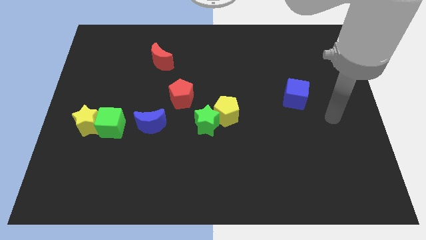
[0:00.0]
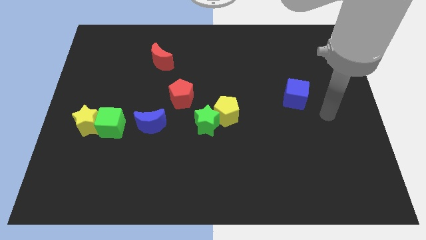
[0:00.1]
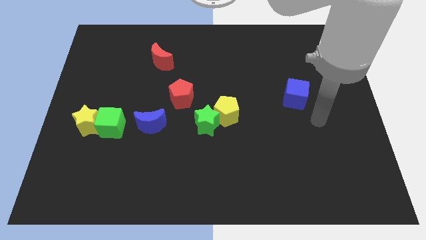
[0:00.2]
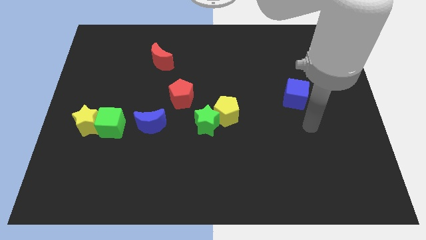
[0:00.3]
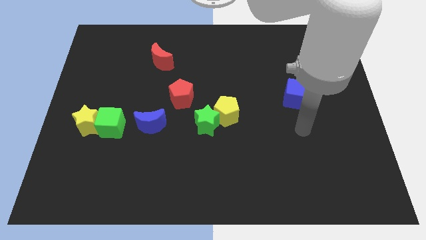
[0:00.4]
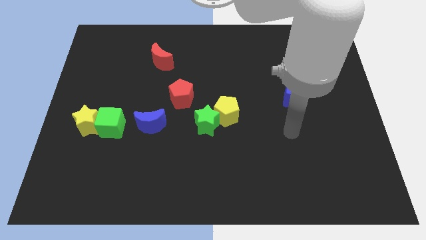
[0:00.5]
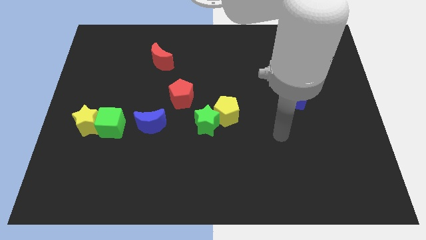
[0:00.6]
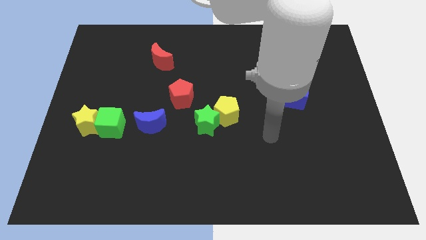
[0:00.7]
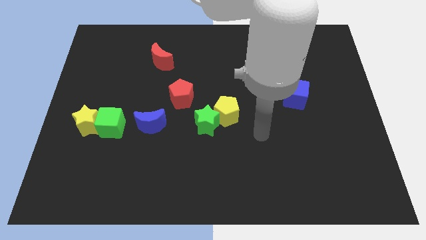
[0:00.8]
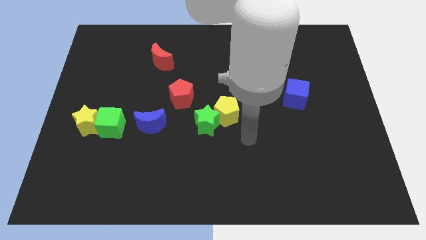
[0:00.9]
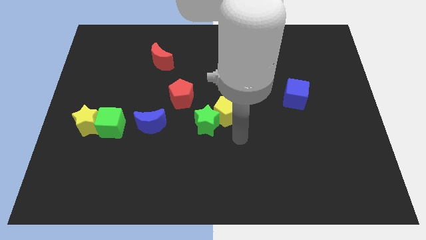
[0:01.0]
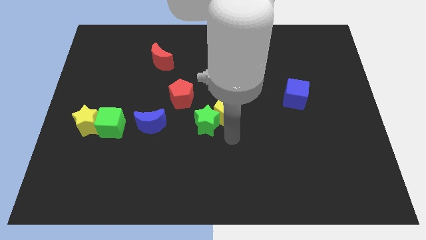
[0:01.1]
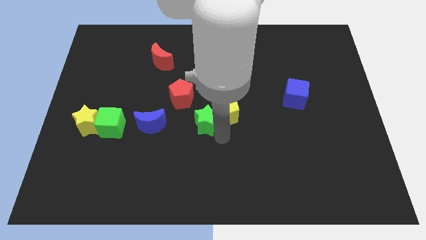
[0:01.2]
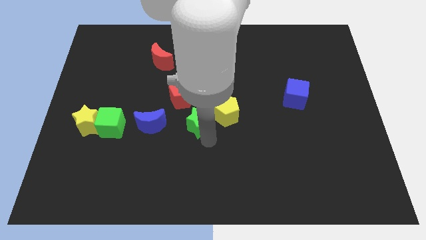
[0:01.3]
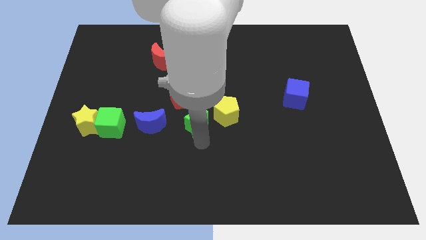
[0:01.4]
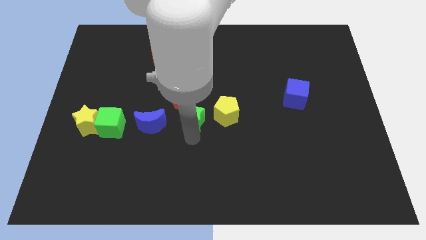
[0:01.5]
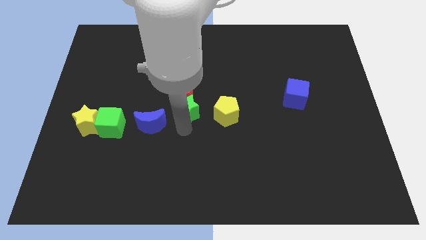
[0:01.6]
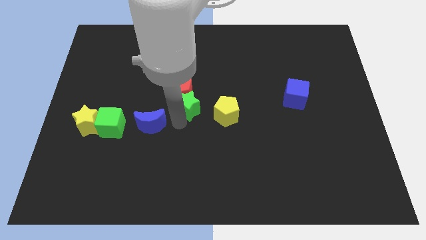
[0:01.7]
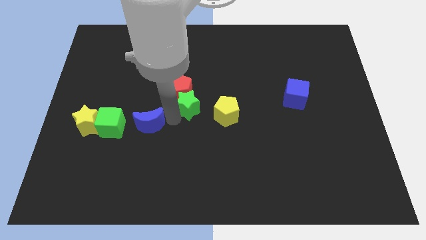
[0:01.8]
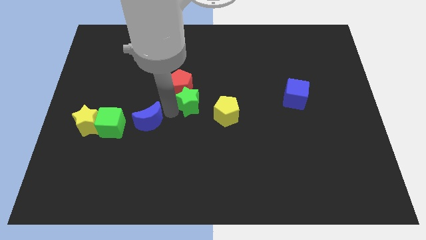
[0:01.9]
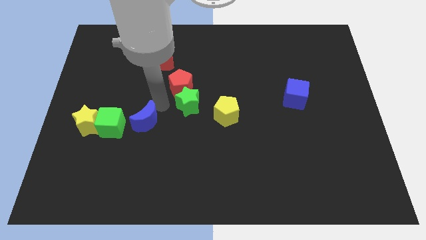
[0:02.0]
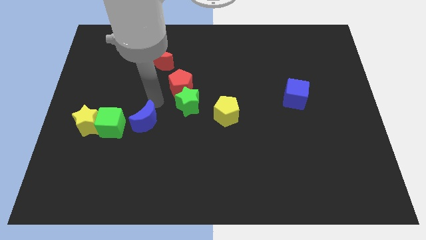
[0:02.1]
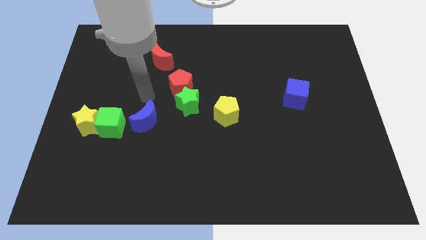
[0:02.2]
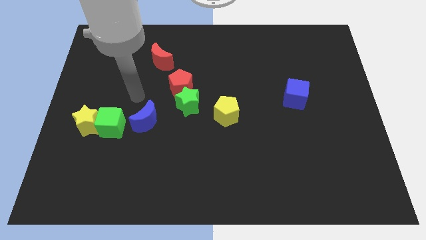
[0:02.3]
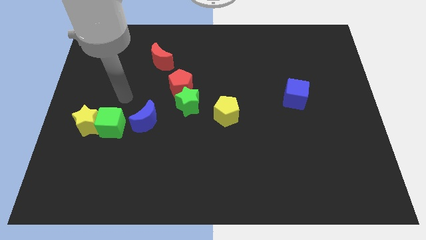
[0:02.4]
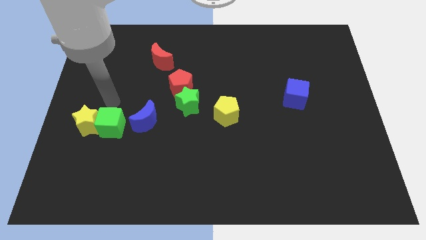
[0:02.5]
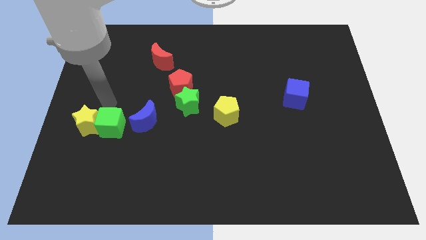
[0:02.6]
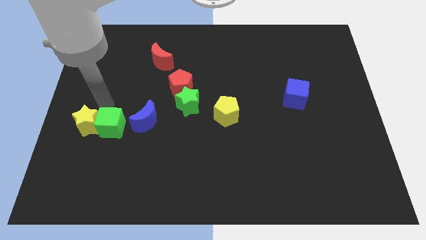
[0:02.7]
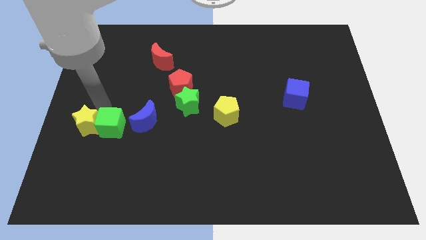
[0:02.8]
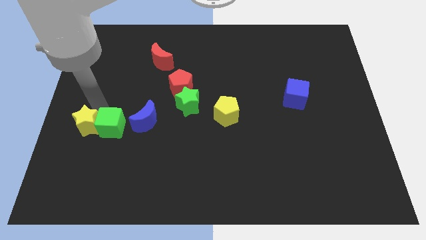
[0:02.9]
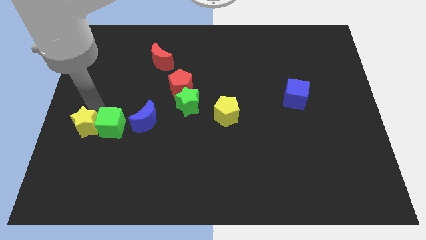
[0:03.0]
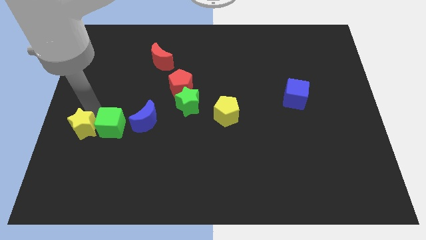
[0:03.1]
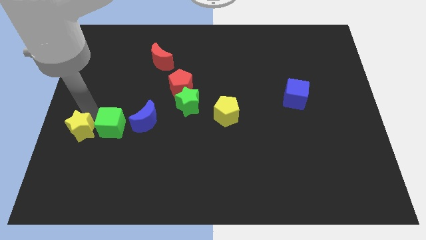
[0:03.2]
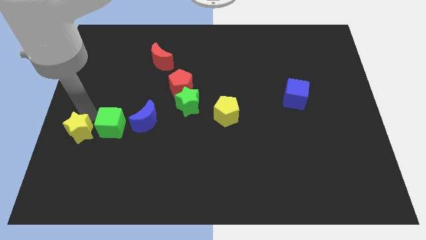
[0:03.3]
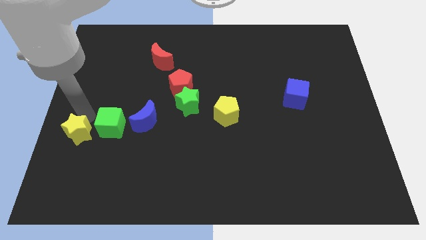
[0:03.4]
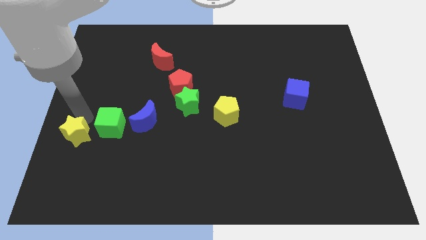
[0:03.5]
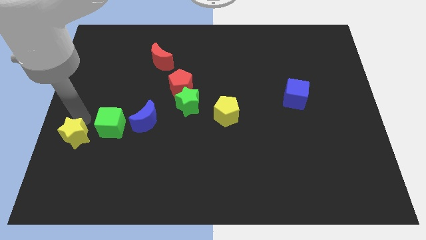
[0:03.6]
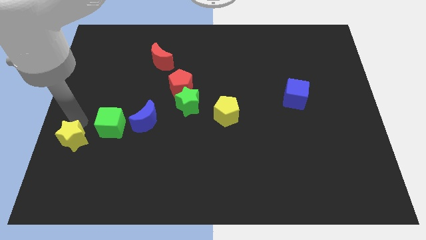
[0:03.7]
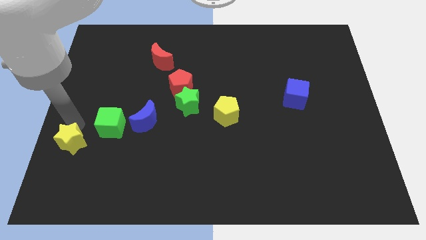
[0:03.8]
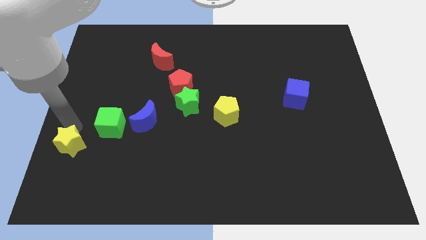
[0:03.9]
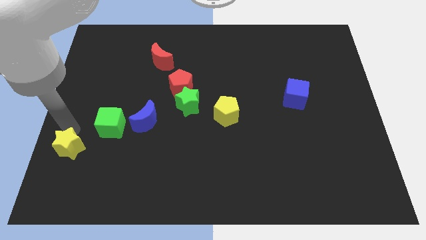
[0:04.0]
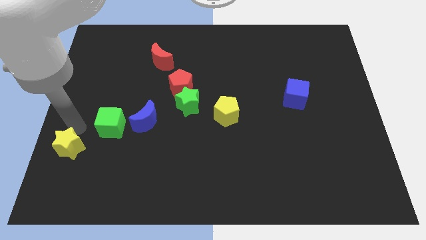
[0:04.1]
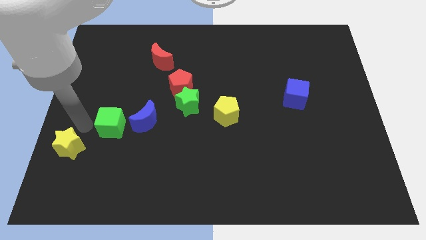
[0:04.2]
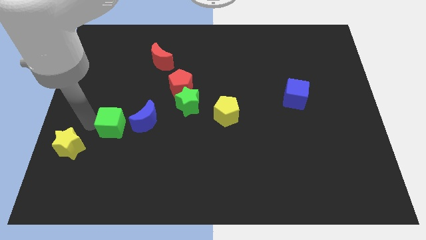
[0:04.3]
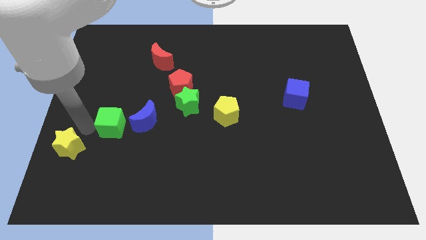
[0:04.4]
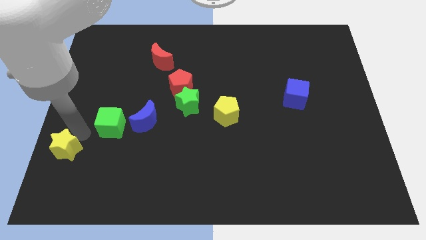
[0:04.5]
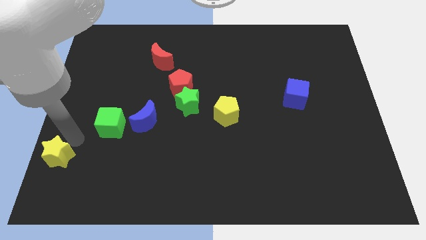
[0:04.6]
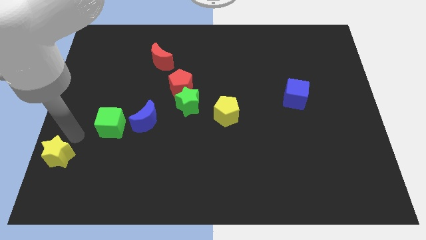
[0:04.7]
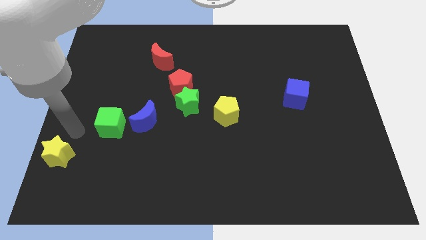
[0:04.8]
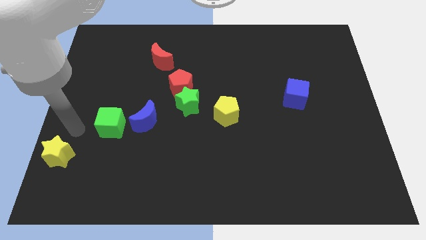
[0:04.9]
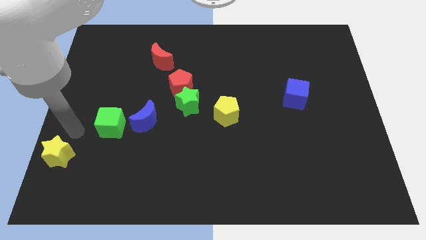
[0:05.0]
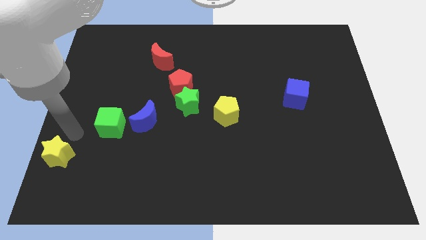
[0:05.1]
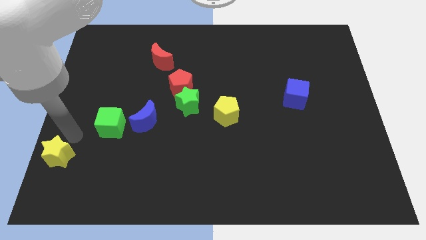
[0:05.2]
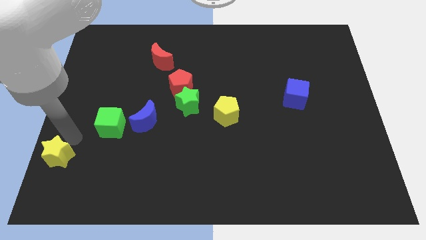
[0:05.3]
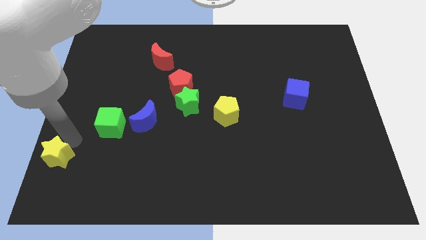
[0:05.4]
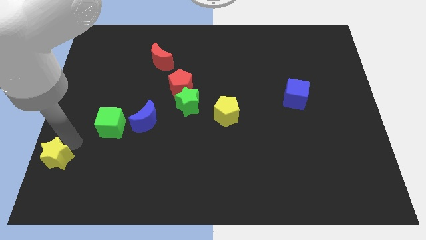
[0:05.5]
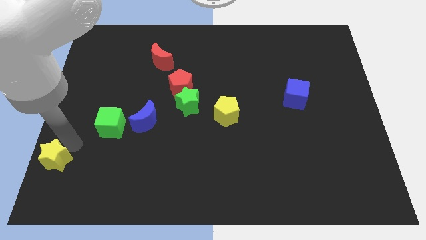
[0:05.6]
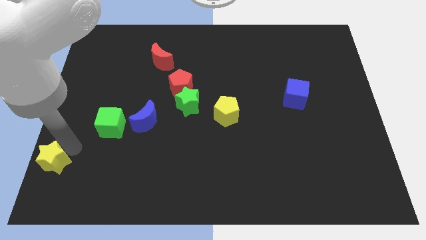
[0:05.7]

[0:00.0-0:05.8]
move the yellow star to the bottom left corner

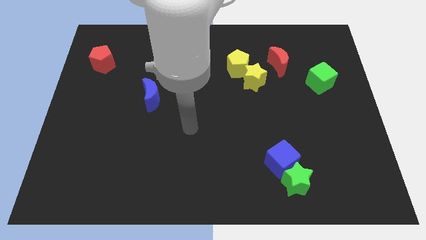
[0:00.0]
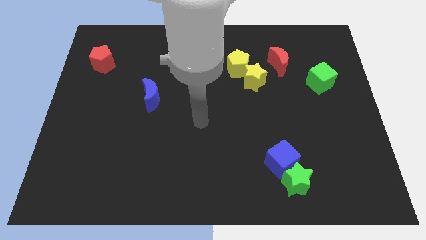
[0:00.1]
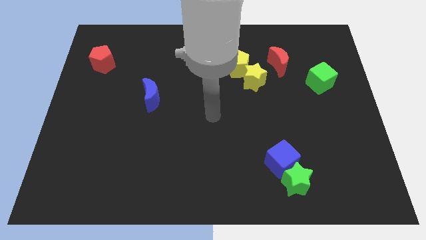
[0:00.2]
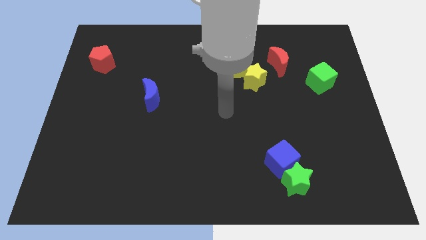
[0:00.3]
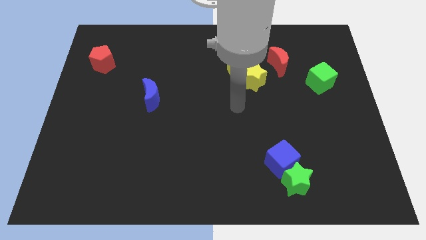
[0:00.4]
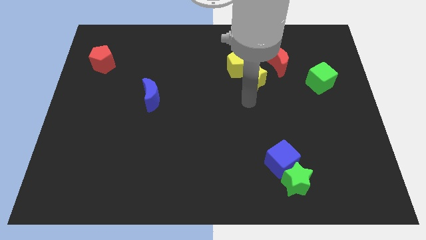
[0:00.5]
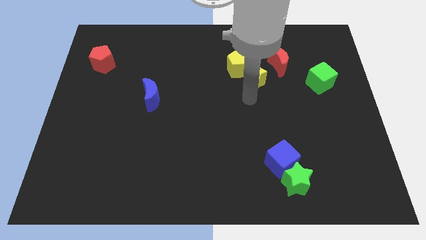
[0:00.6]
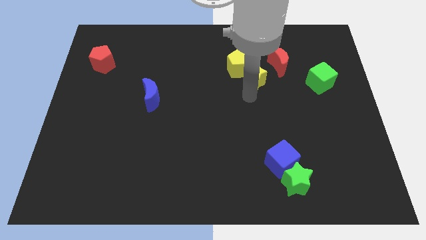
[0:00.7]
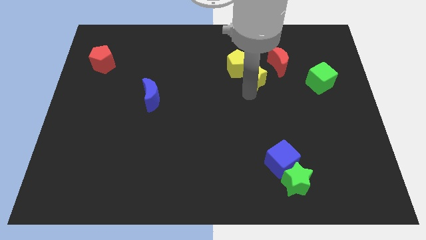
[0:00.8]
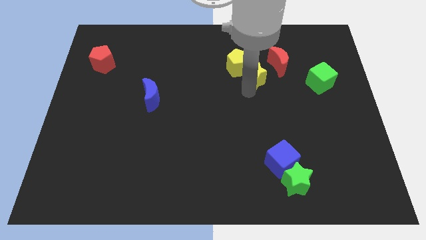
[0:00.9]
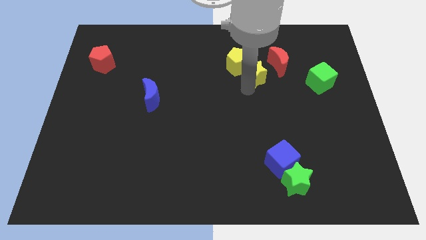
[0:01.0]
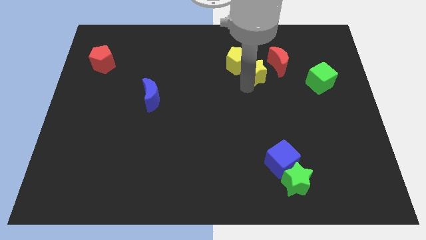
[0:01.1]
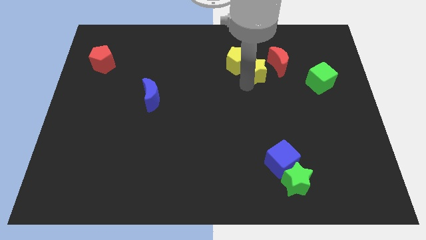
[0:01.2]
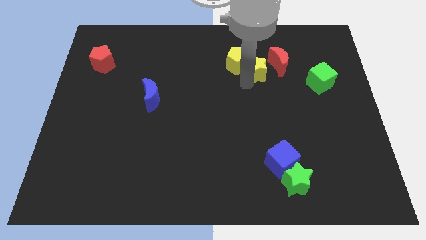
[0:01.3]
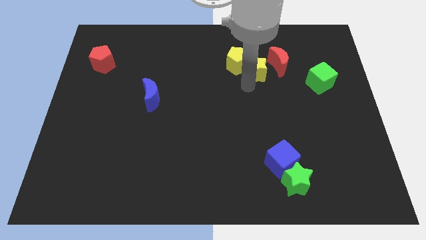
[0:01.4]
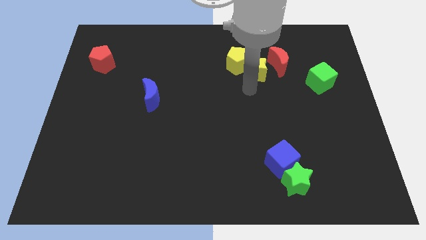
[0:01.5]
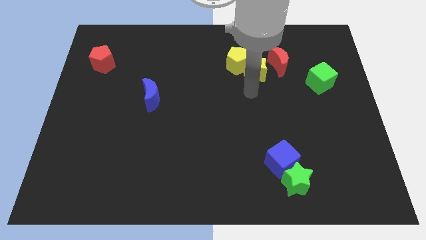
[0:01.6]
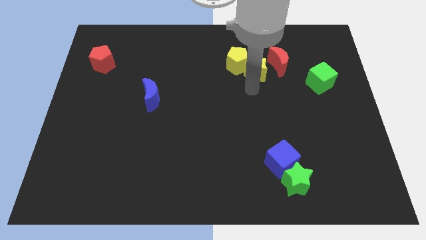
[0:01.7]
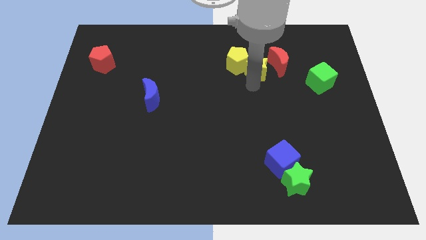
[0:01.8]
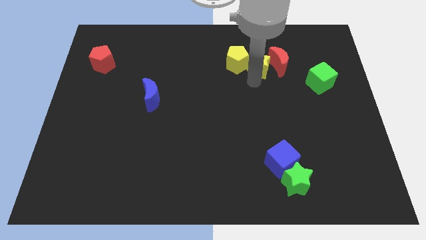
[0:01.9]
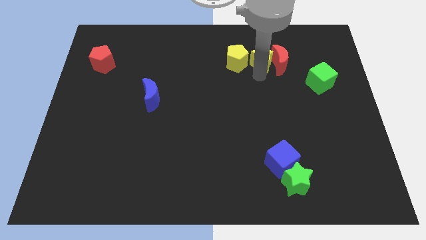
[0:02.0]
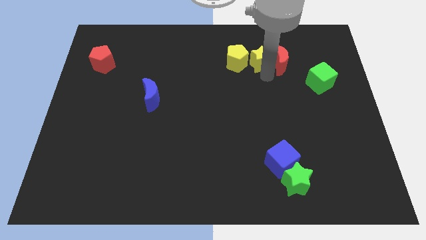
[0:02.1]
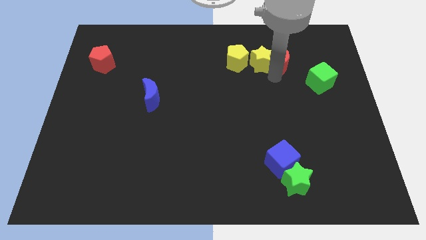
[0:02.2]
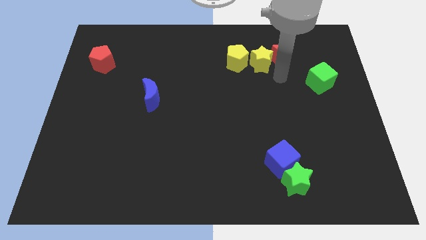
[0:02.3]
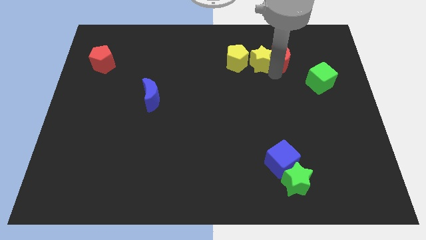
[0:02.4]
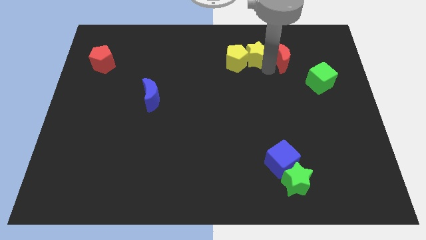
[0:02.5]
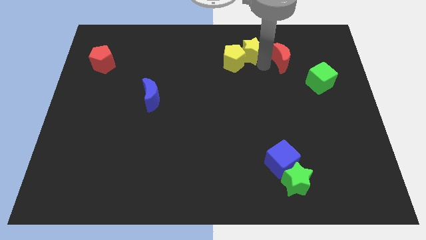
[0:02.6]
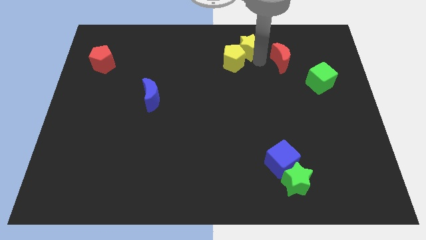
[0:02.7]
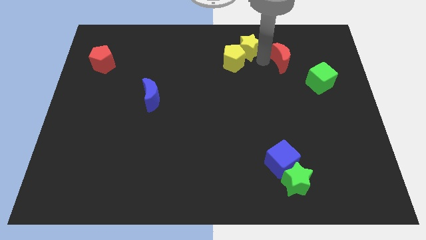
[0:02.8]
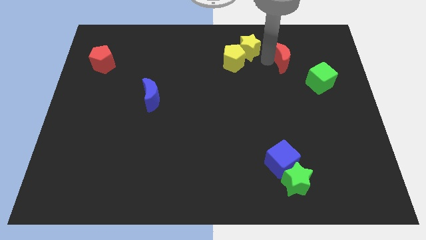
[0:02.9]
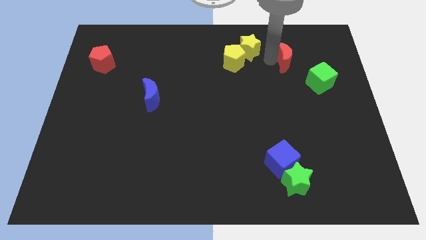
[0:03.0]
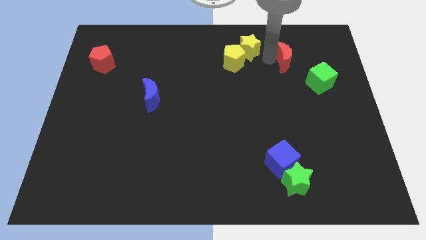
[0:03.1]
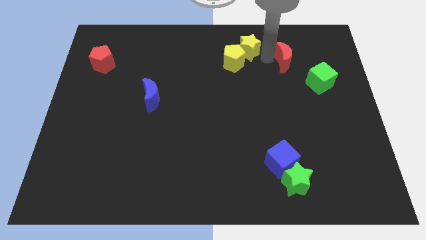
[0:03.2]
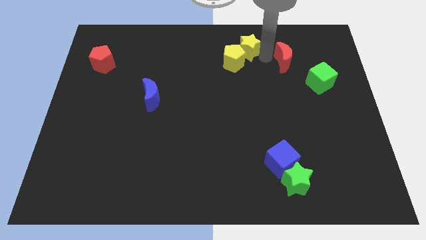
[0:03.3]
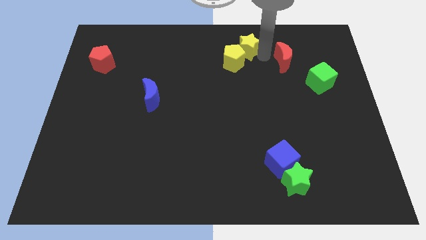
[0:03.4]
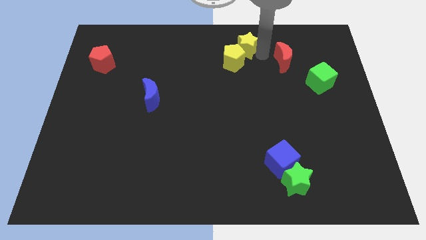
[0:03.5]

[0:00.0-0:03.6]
move the yellow star to the top side
